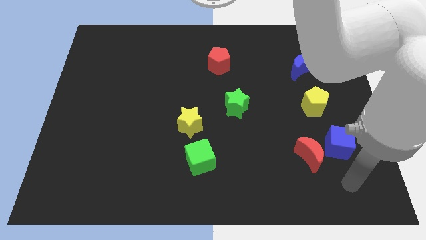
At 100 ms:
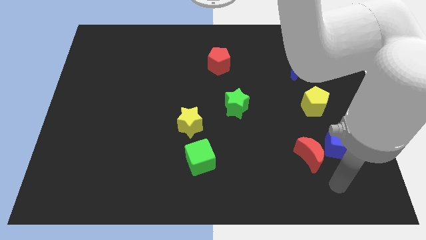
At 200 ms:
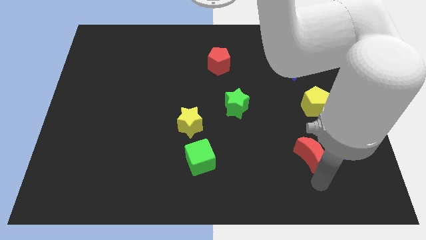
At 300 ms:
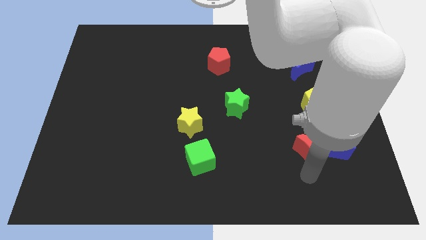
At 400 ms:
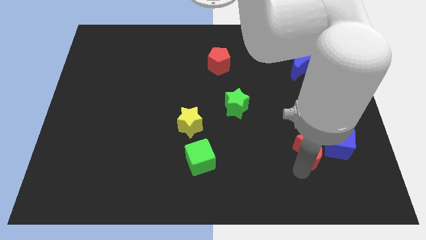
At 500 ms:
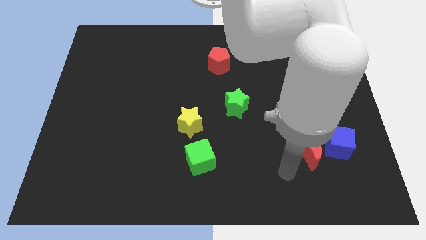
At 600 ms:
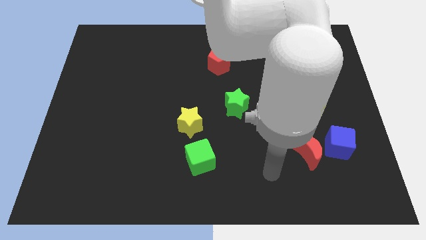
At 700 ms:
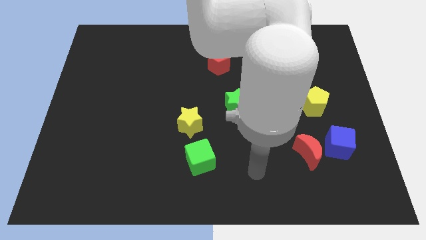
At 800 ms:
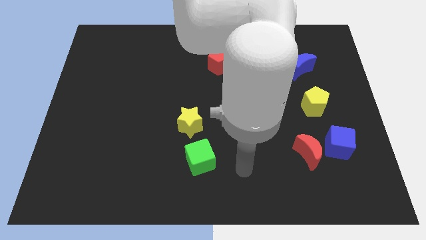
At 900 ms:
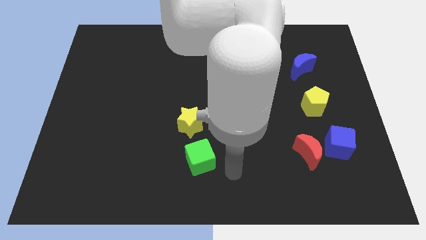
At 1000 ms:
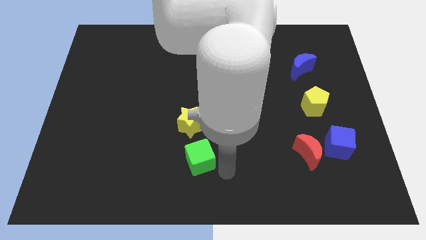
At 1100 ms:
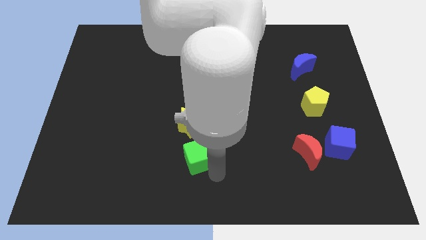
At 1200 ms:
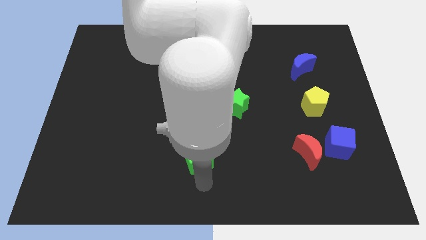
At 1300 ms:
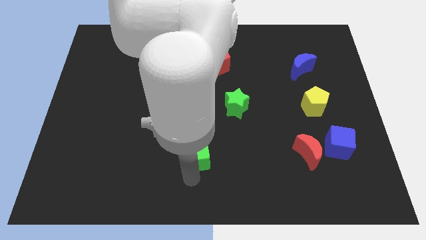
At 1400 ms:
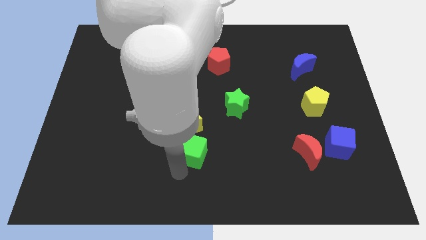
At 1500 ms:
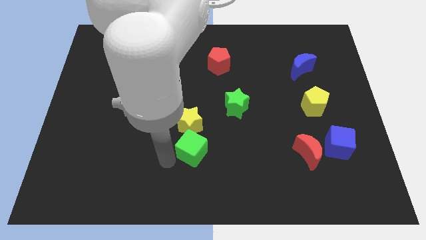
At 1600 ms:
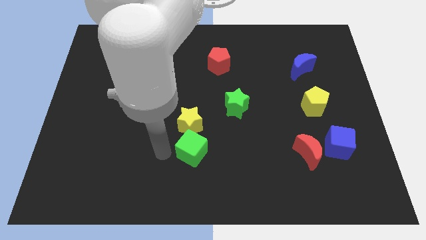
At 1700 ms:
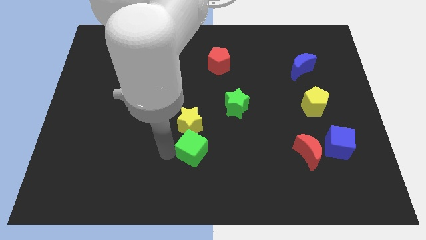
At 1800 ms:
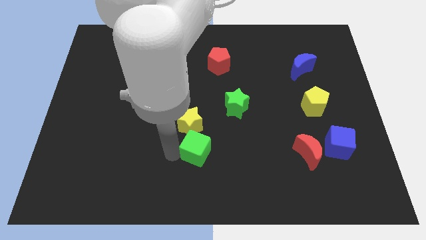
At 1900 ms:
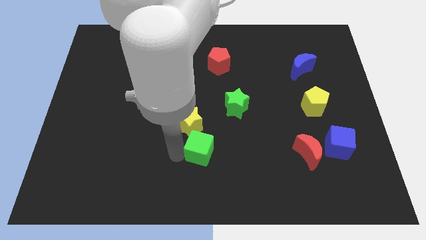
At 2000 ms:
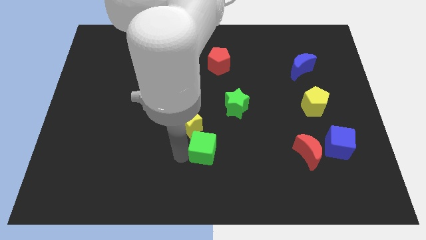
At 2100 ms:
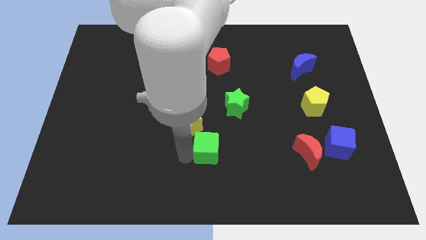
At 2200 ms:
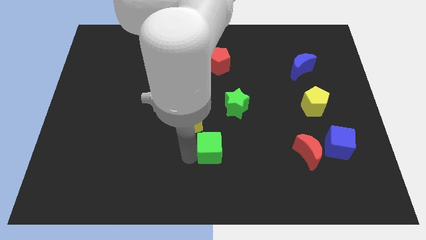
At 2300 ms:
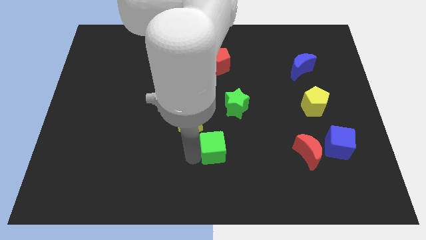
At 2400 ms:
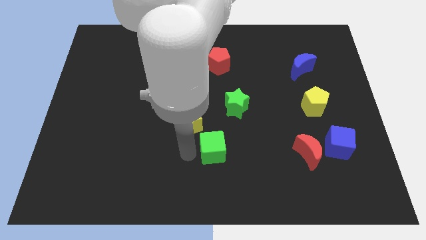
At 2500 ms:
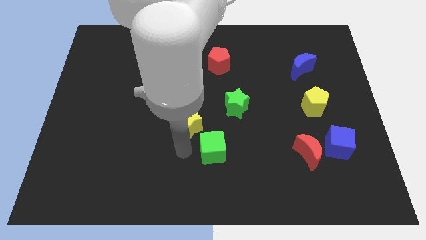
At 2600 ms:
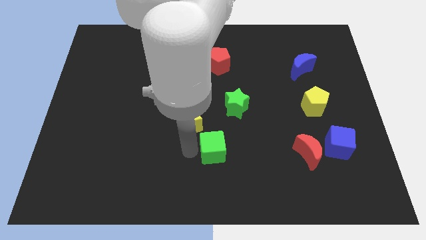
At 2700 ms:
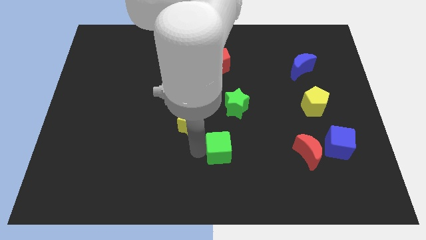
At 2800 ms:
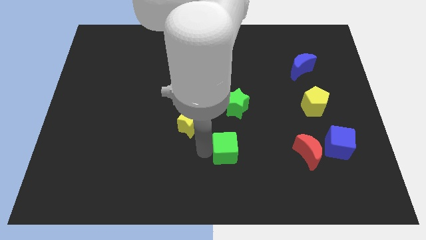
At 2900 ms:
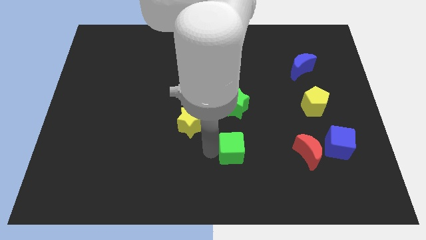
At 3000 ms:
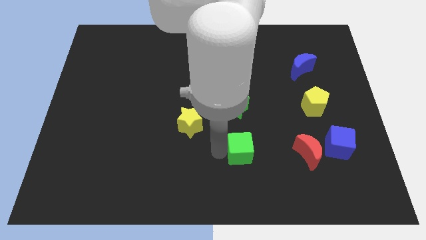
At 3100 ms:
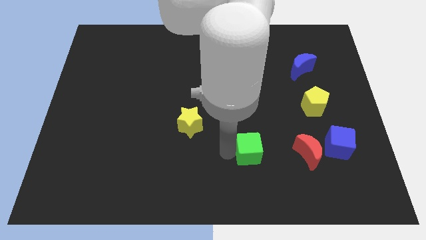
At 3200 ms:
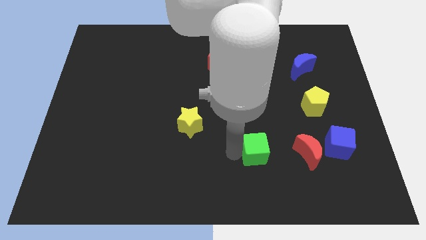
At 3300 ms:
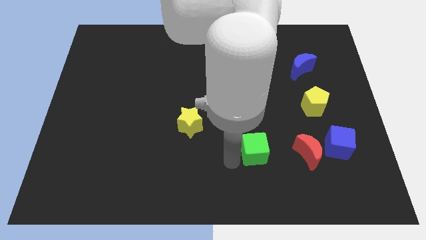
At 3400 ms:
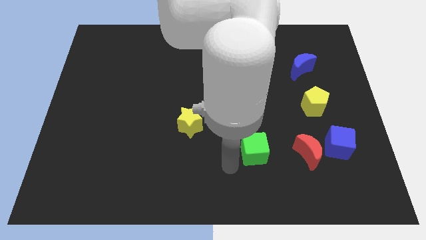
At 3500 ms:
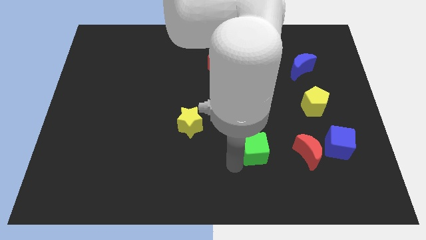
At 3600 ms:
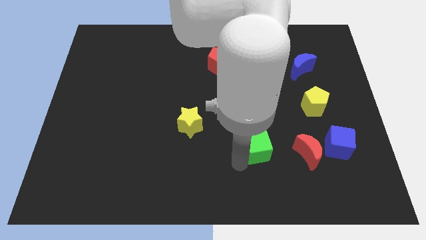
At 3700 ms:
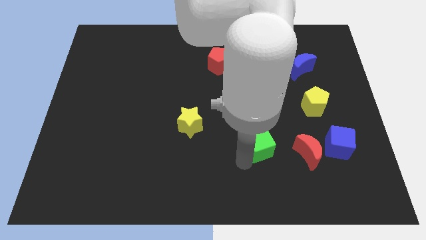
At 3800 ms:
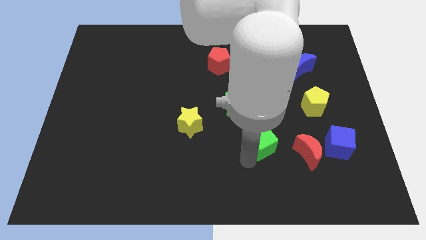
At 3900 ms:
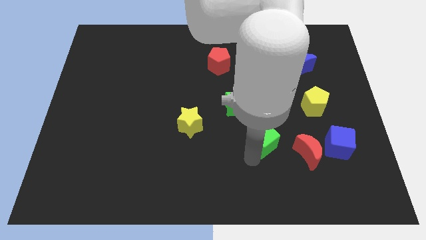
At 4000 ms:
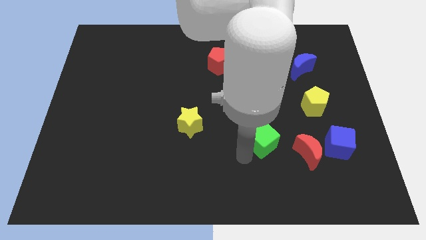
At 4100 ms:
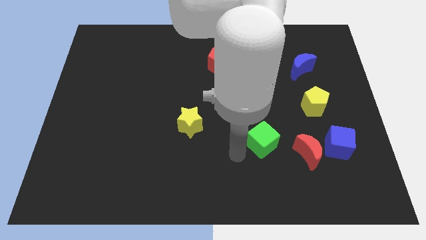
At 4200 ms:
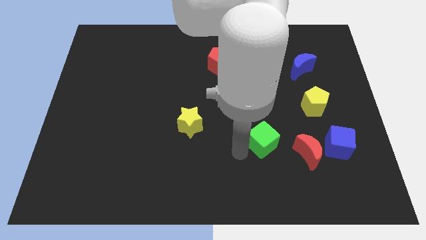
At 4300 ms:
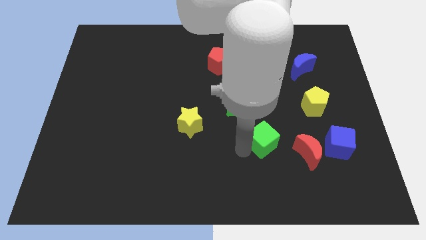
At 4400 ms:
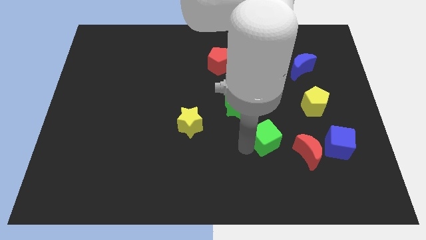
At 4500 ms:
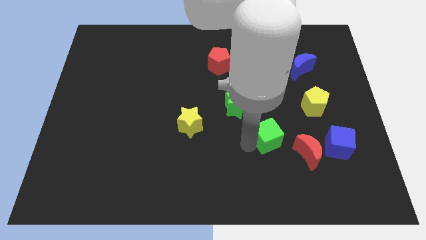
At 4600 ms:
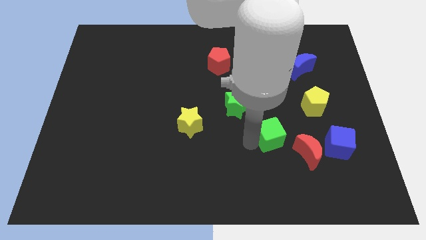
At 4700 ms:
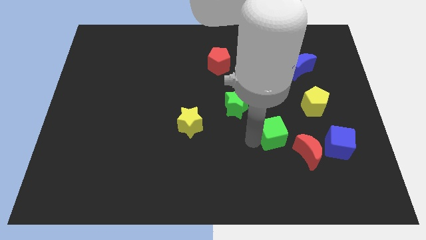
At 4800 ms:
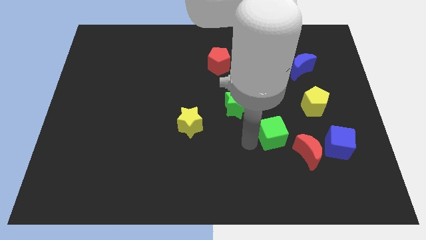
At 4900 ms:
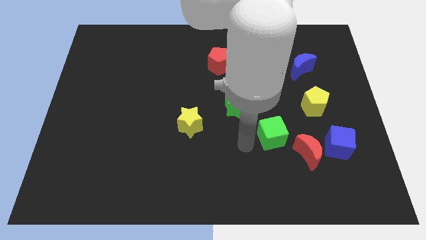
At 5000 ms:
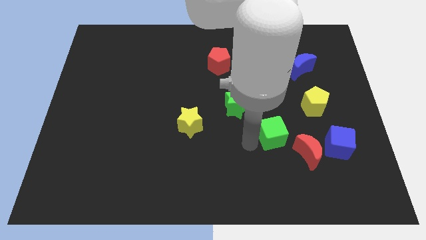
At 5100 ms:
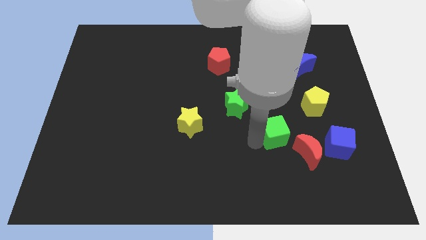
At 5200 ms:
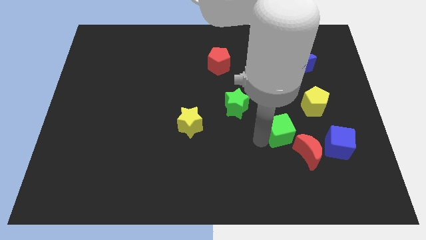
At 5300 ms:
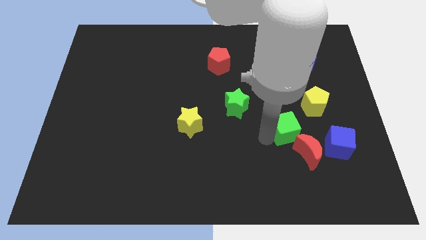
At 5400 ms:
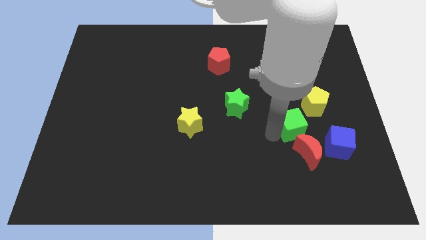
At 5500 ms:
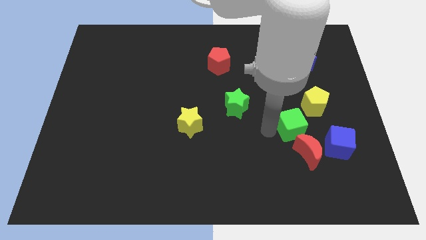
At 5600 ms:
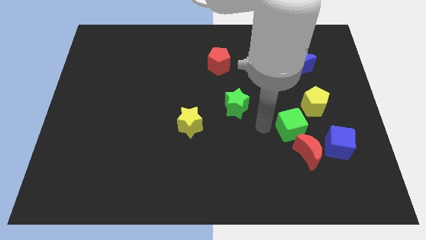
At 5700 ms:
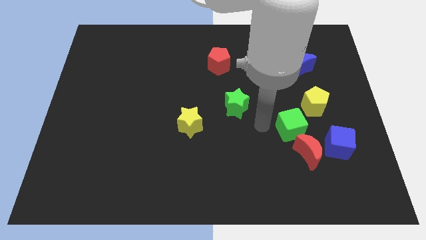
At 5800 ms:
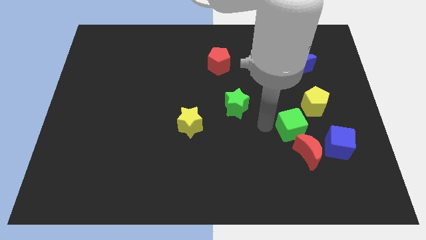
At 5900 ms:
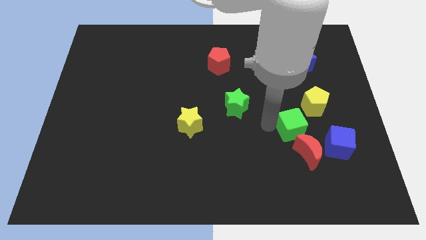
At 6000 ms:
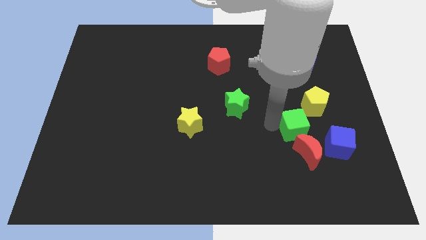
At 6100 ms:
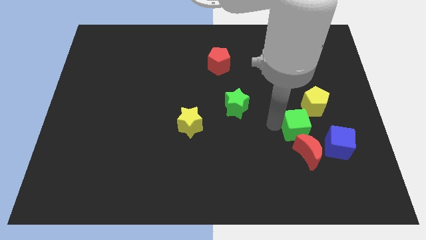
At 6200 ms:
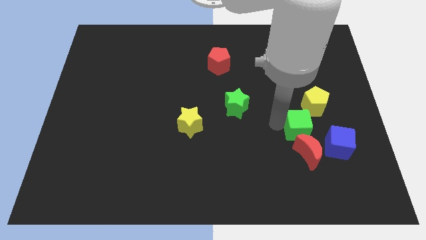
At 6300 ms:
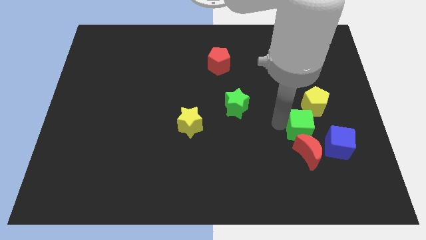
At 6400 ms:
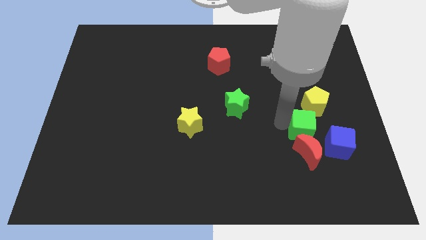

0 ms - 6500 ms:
slide the green cube to the top right side of the red moon

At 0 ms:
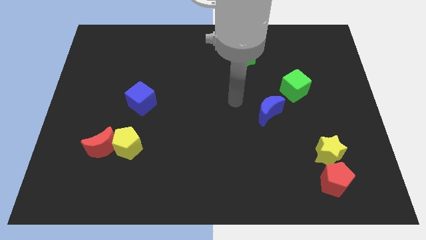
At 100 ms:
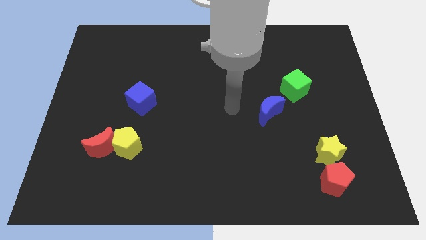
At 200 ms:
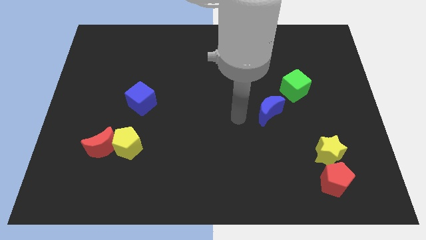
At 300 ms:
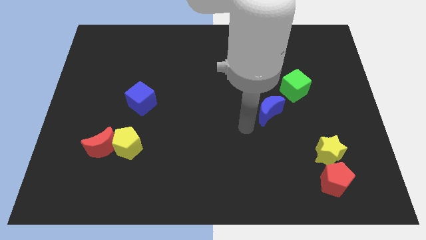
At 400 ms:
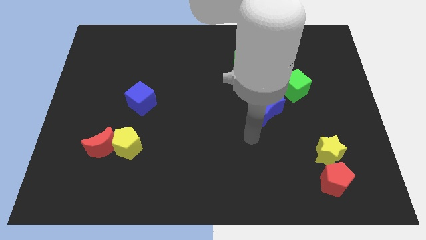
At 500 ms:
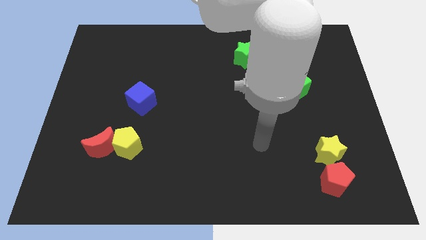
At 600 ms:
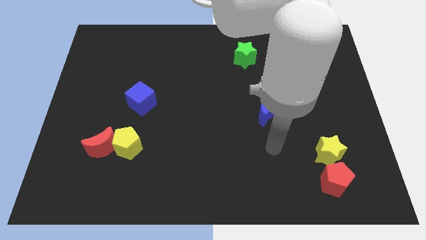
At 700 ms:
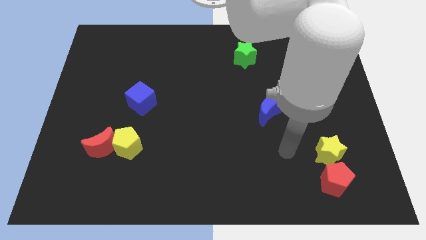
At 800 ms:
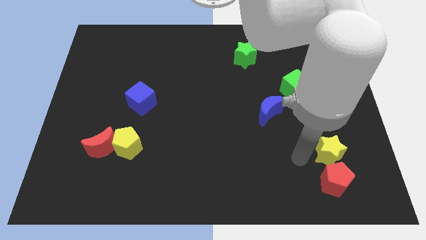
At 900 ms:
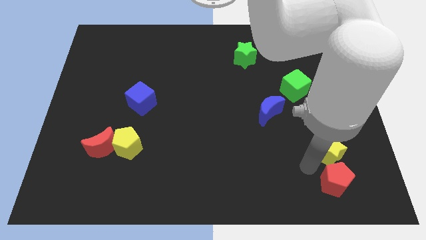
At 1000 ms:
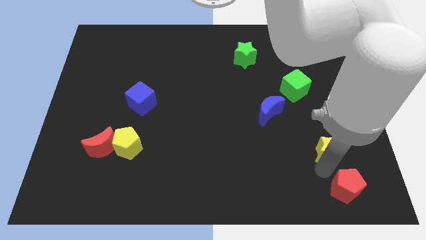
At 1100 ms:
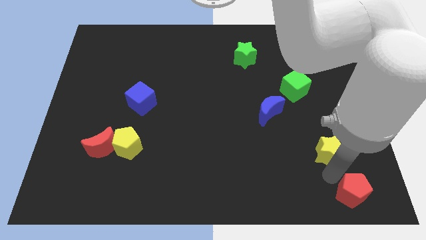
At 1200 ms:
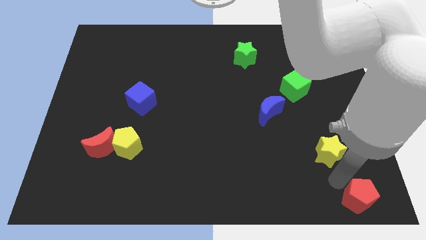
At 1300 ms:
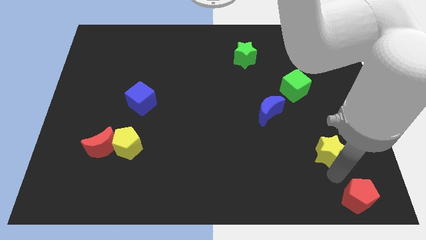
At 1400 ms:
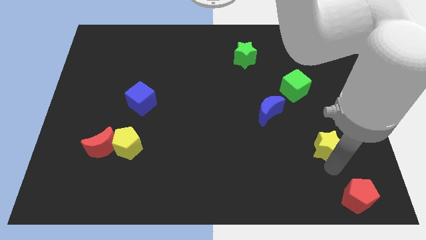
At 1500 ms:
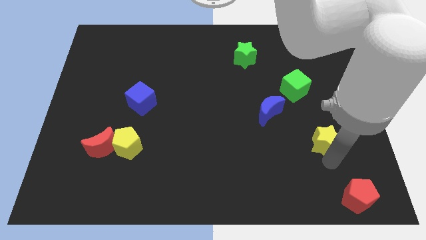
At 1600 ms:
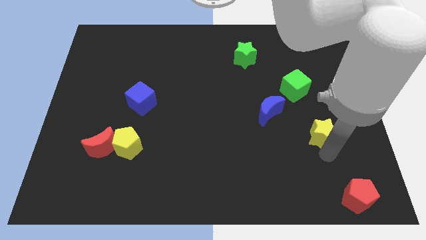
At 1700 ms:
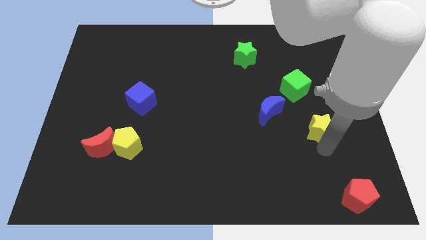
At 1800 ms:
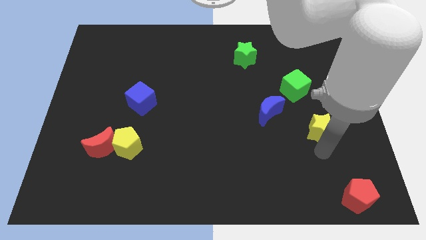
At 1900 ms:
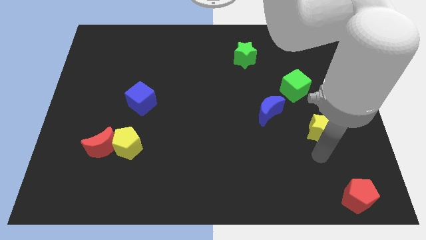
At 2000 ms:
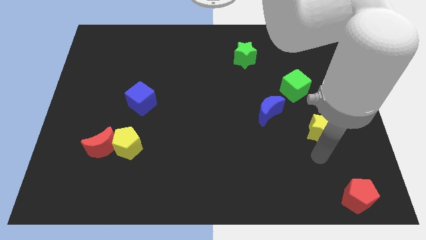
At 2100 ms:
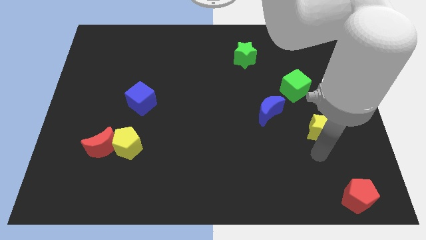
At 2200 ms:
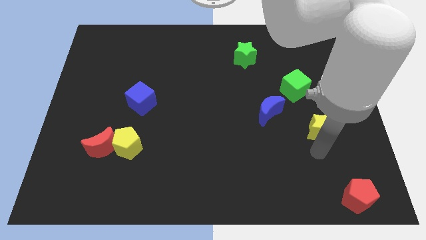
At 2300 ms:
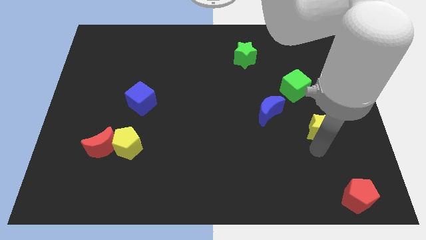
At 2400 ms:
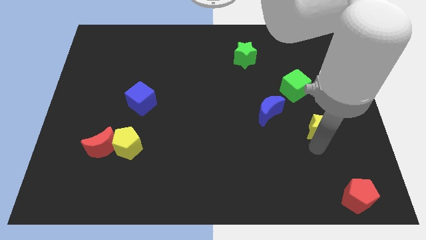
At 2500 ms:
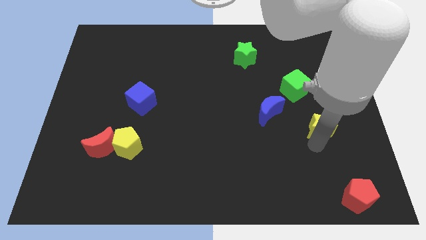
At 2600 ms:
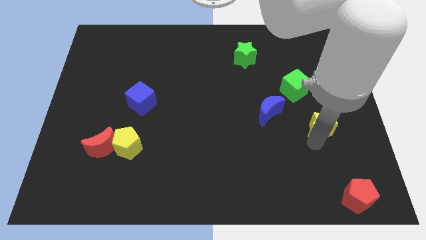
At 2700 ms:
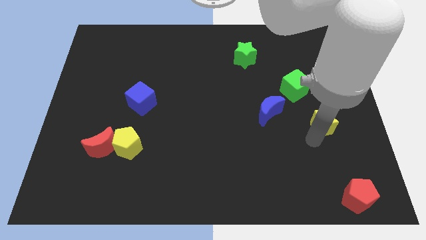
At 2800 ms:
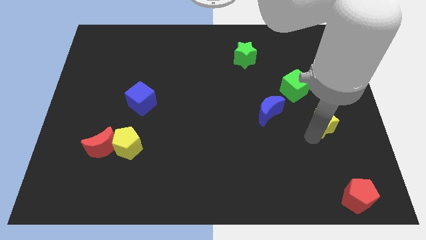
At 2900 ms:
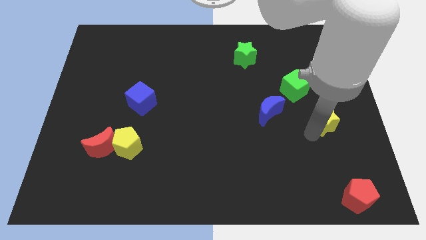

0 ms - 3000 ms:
put the yellow star to the bottom right of the green cube
